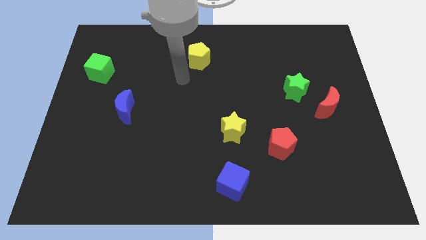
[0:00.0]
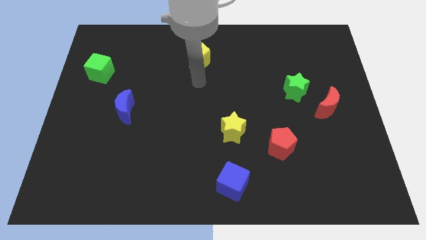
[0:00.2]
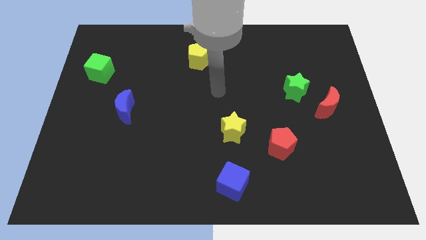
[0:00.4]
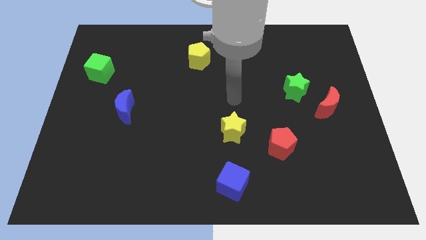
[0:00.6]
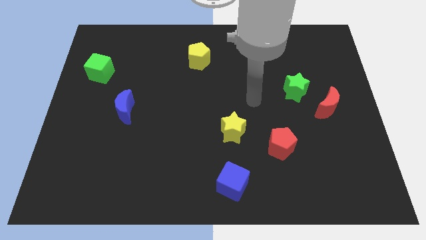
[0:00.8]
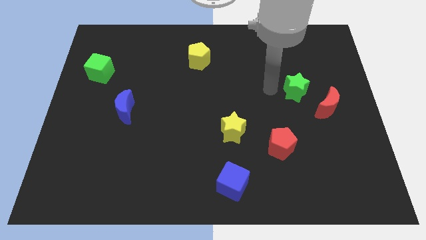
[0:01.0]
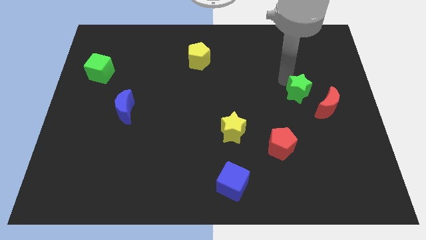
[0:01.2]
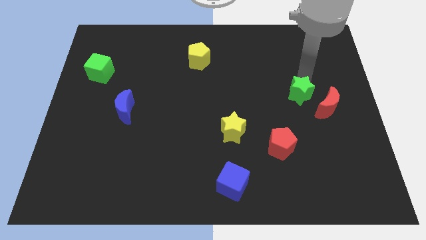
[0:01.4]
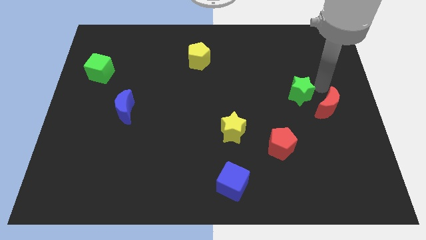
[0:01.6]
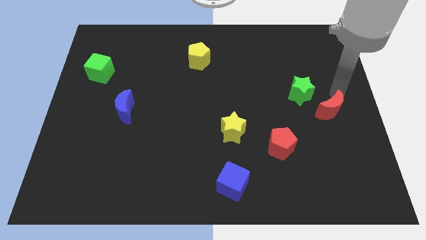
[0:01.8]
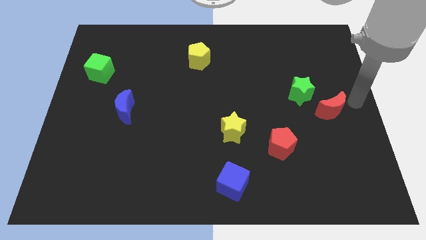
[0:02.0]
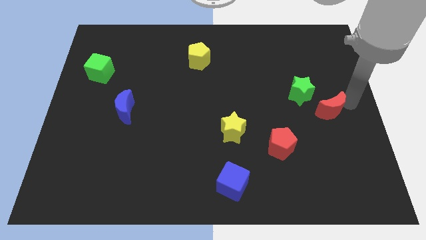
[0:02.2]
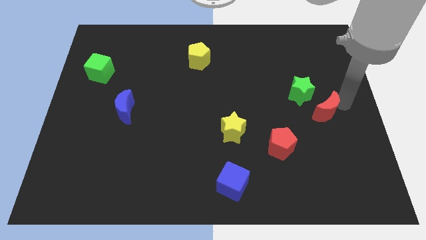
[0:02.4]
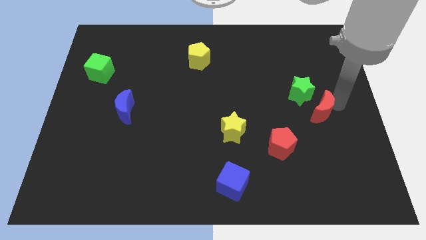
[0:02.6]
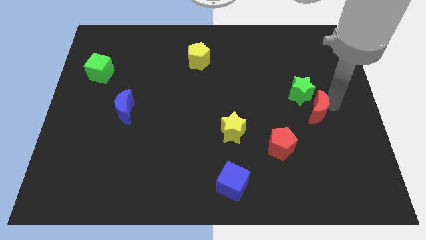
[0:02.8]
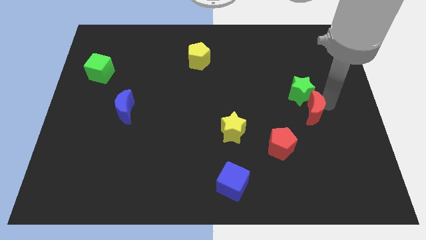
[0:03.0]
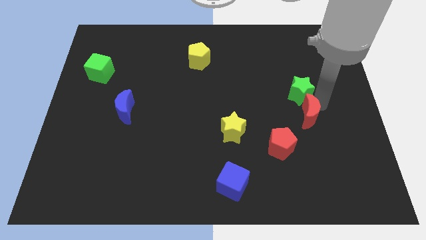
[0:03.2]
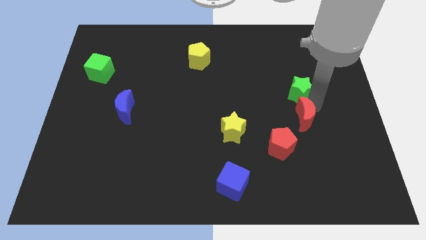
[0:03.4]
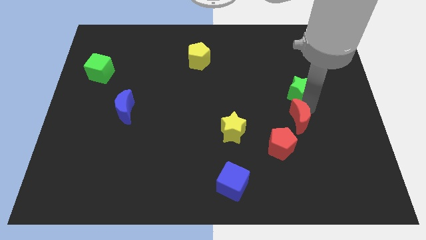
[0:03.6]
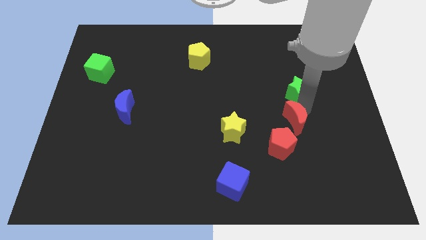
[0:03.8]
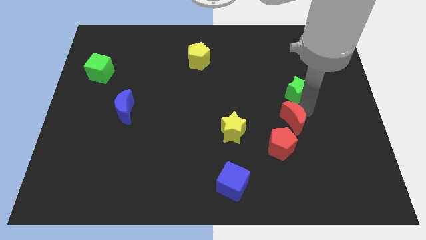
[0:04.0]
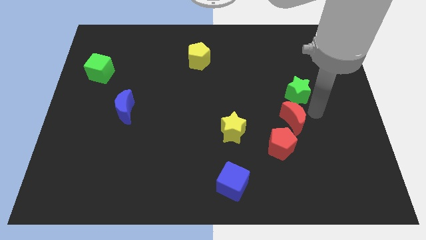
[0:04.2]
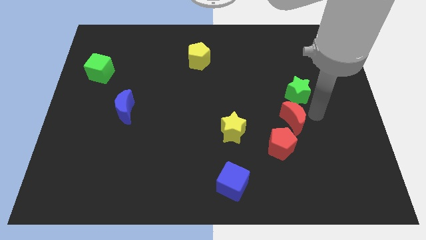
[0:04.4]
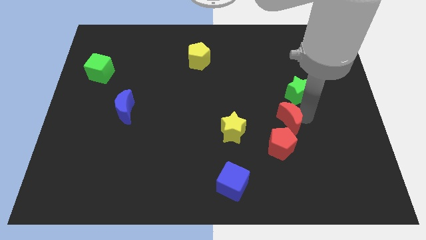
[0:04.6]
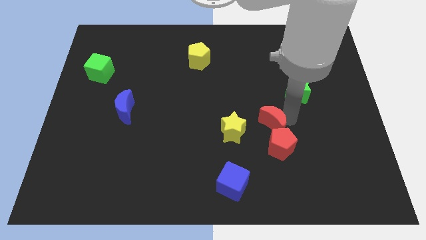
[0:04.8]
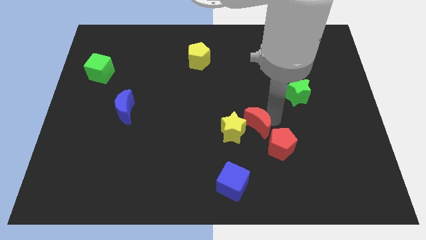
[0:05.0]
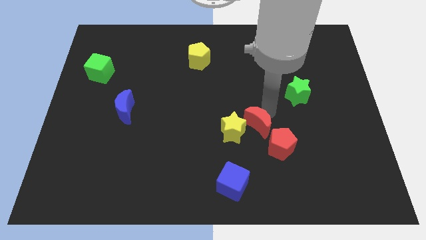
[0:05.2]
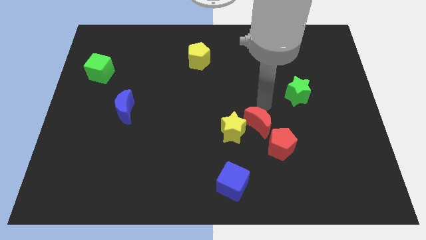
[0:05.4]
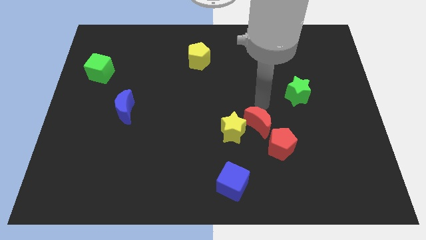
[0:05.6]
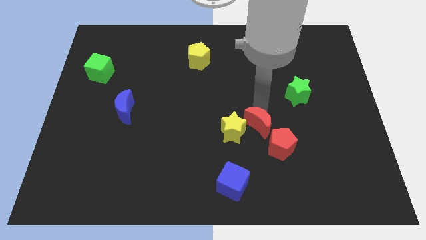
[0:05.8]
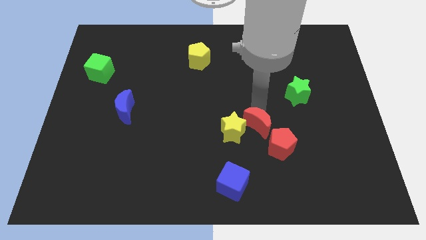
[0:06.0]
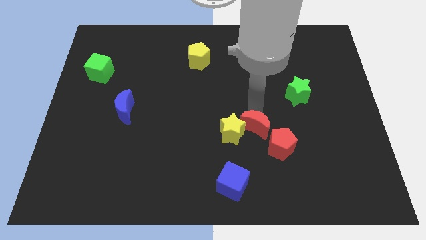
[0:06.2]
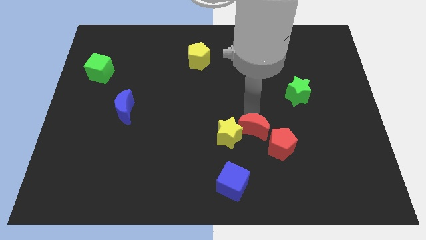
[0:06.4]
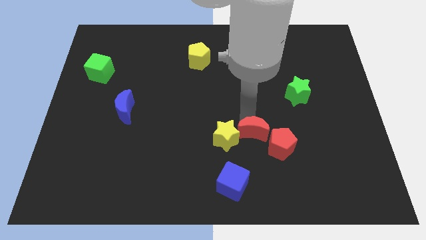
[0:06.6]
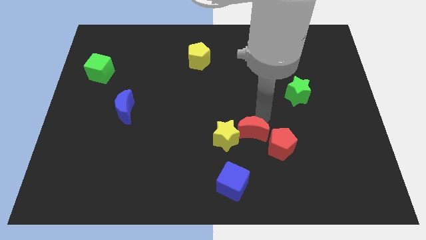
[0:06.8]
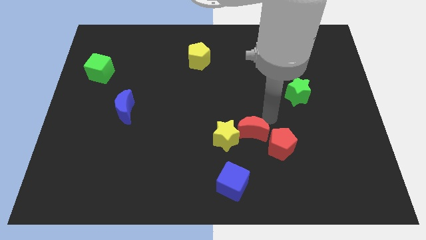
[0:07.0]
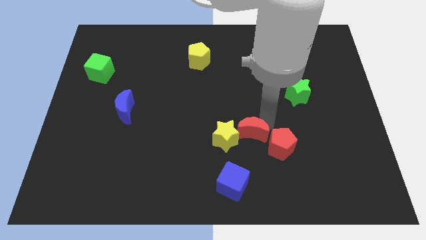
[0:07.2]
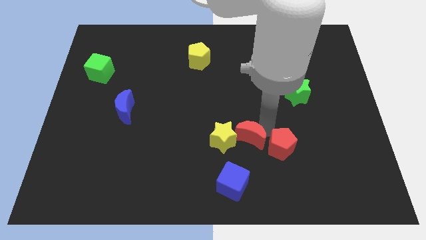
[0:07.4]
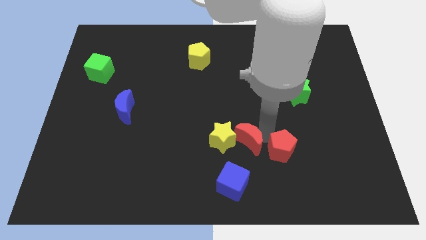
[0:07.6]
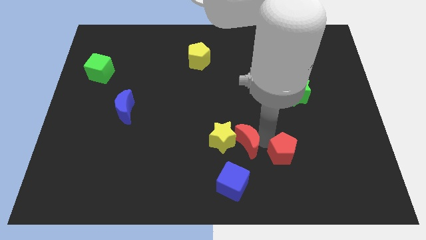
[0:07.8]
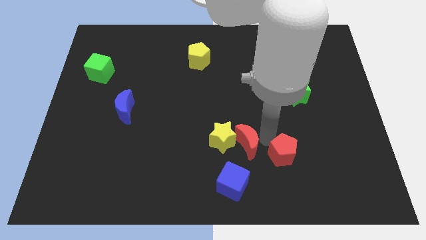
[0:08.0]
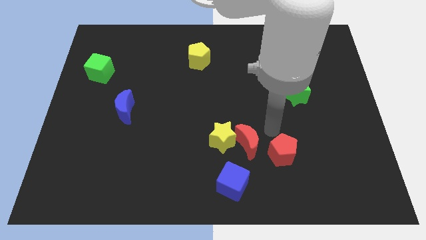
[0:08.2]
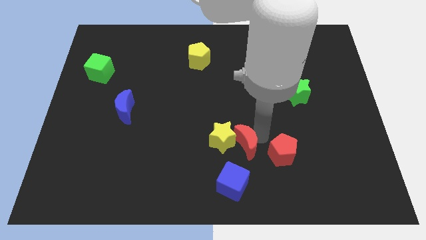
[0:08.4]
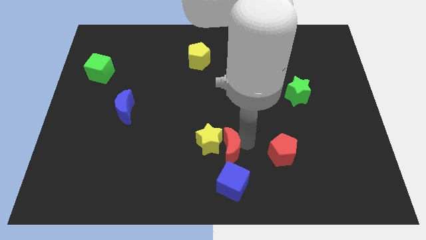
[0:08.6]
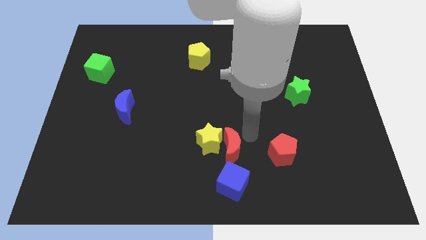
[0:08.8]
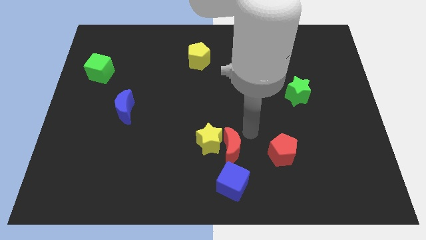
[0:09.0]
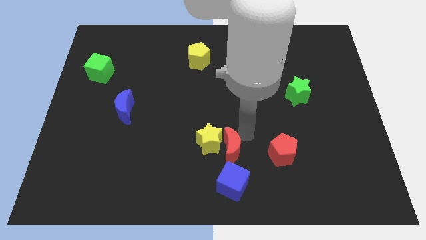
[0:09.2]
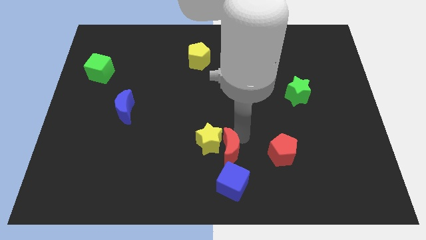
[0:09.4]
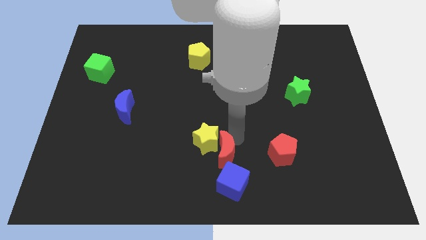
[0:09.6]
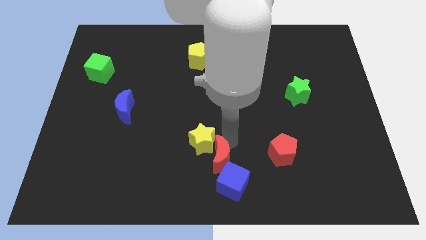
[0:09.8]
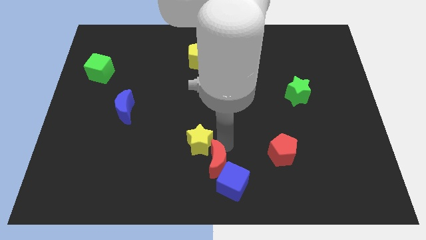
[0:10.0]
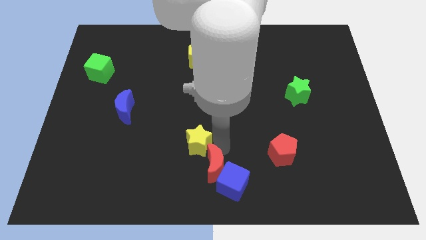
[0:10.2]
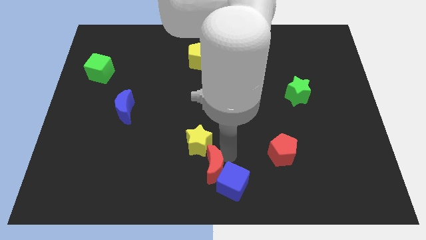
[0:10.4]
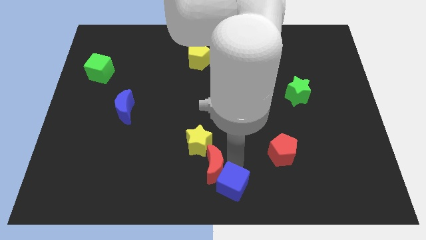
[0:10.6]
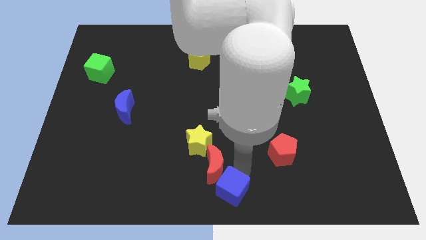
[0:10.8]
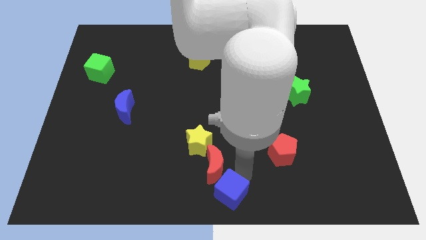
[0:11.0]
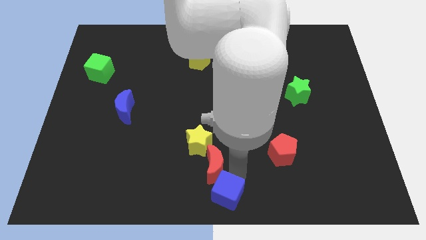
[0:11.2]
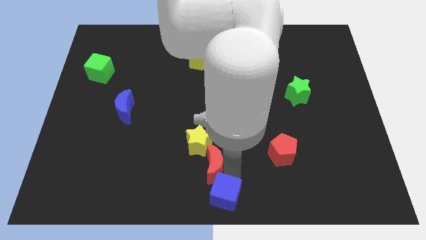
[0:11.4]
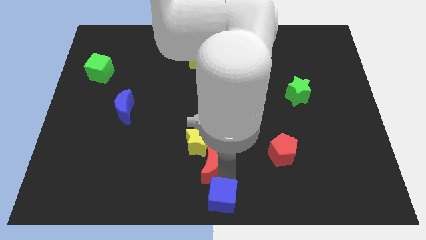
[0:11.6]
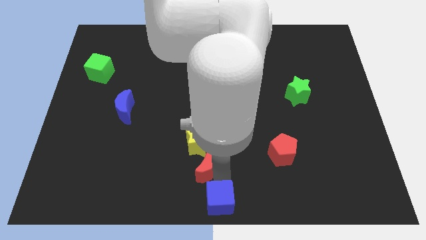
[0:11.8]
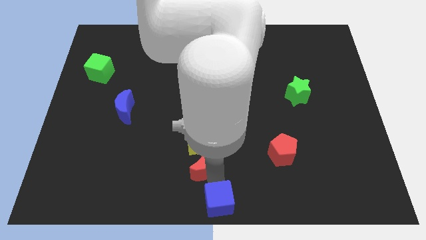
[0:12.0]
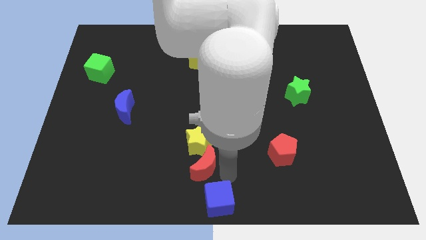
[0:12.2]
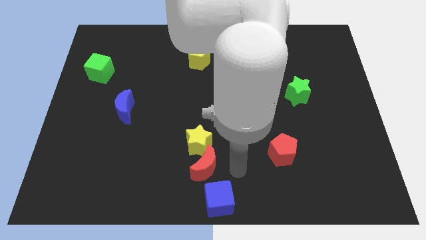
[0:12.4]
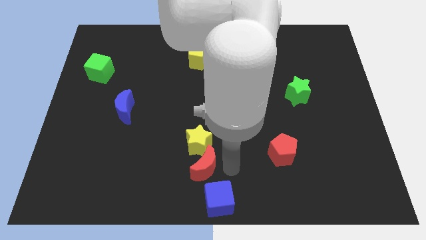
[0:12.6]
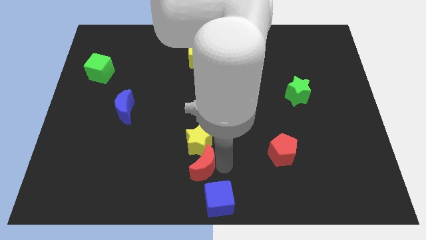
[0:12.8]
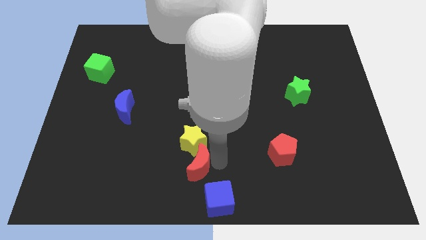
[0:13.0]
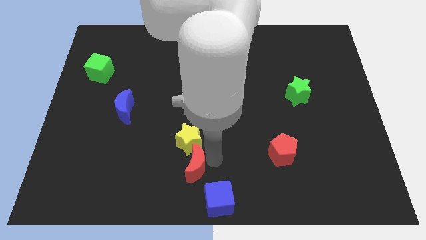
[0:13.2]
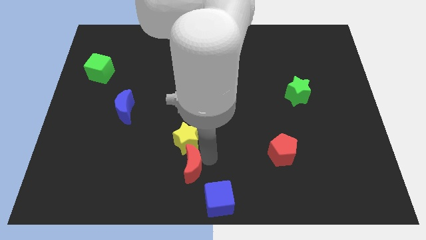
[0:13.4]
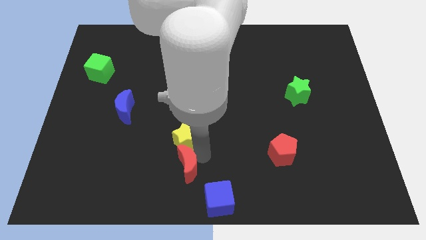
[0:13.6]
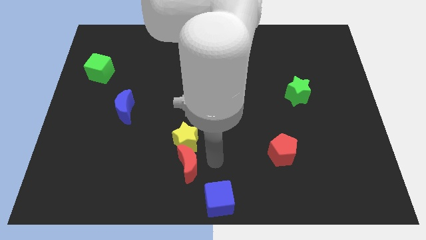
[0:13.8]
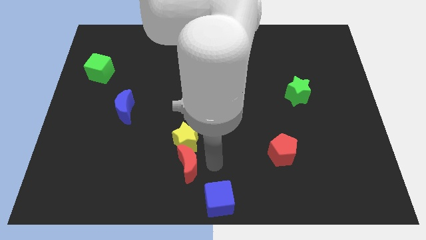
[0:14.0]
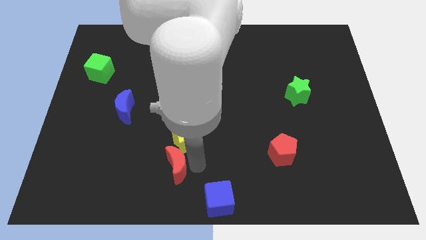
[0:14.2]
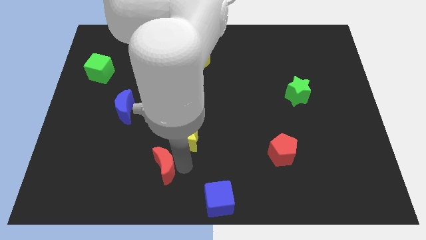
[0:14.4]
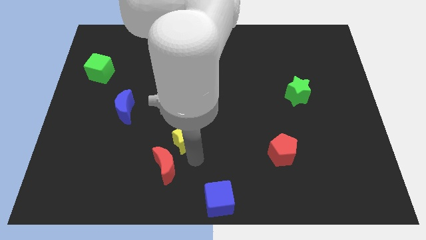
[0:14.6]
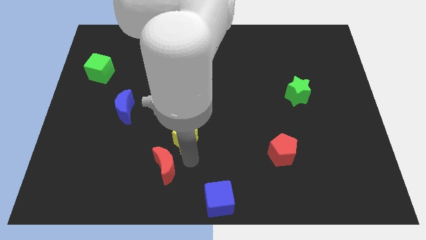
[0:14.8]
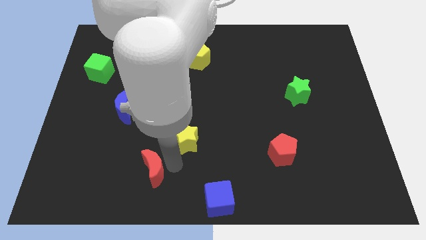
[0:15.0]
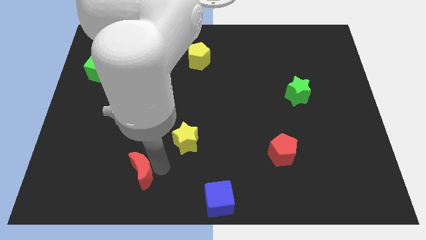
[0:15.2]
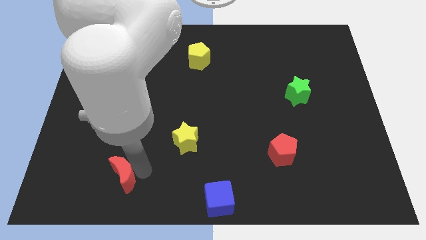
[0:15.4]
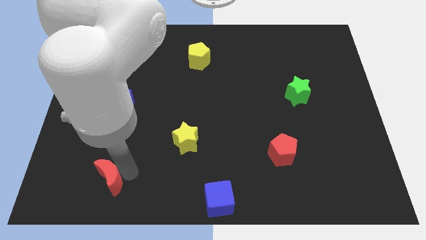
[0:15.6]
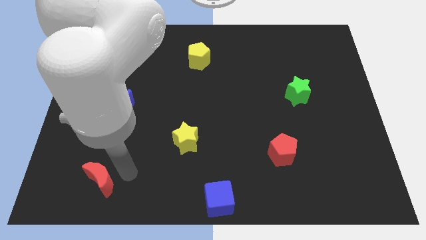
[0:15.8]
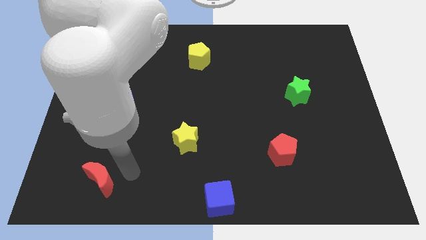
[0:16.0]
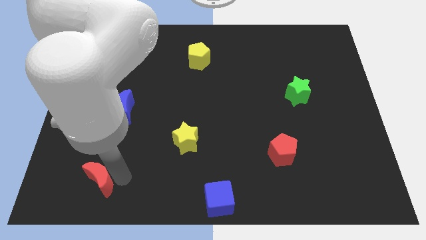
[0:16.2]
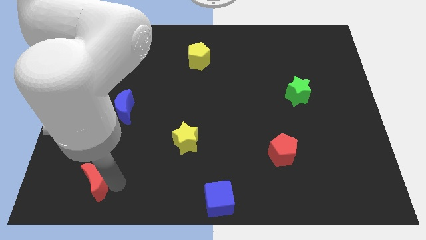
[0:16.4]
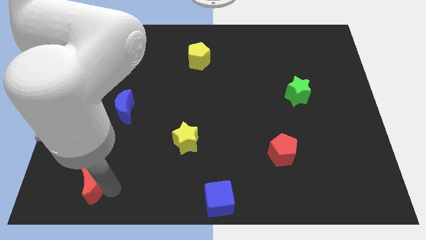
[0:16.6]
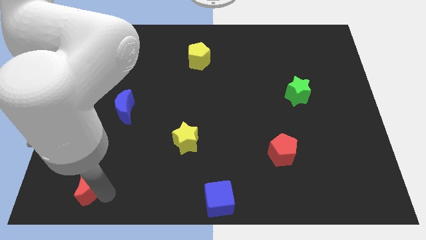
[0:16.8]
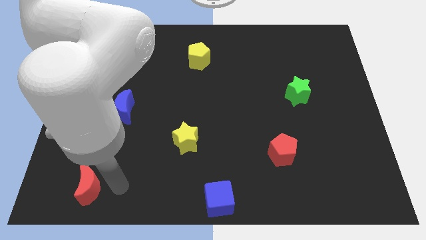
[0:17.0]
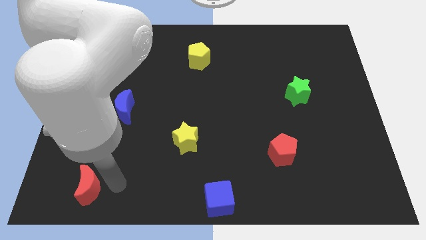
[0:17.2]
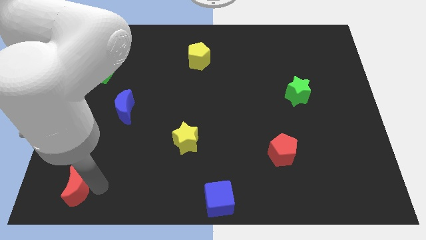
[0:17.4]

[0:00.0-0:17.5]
push the red moon to the bottom left corner
